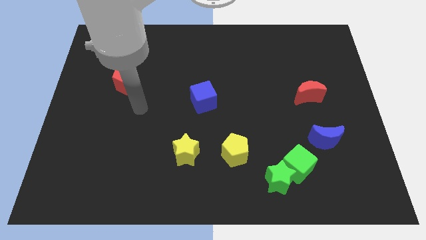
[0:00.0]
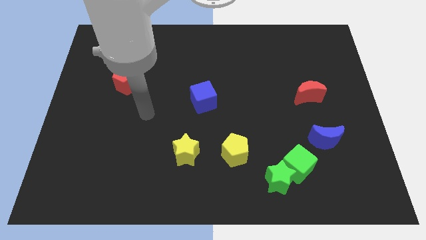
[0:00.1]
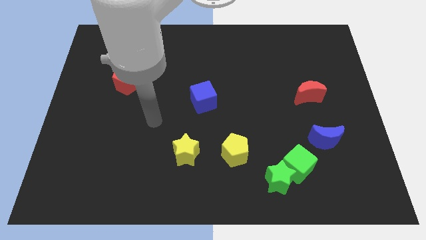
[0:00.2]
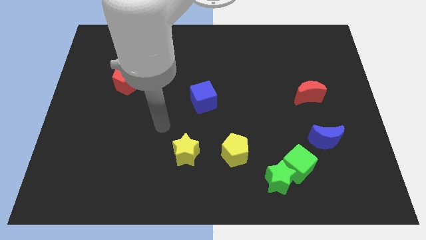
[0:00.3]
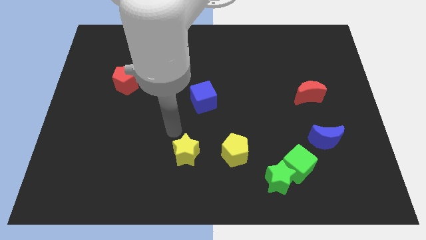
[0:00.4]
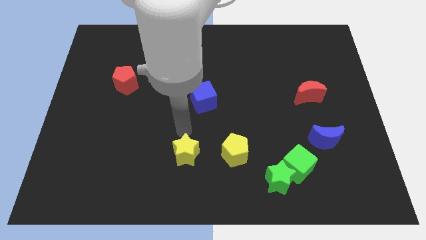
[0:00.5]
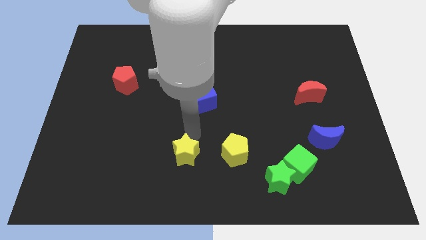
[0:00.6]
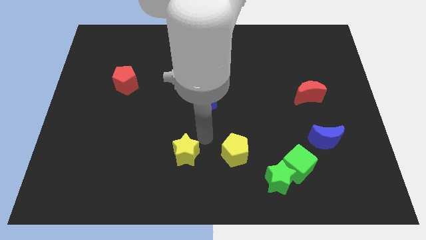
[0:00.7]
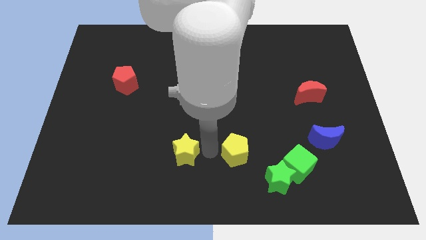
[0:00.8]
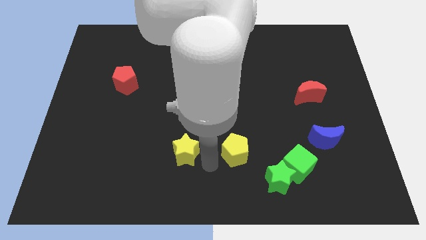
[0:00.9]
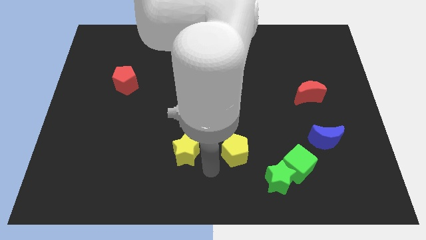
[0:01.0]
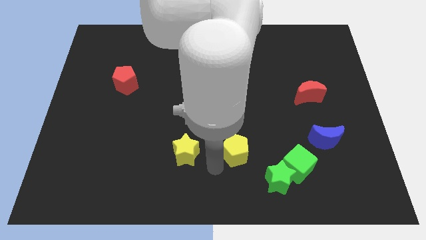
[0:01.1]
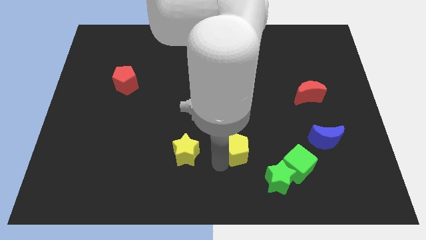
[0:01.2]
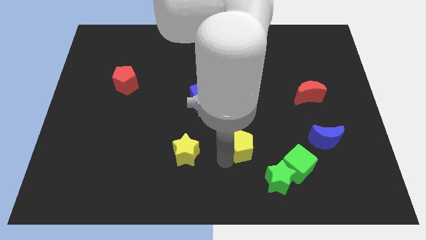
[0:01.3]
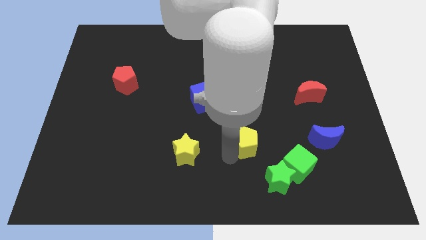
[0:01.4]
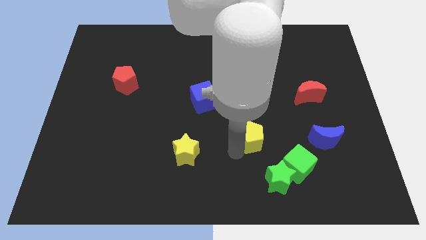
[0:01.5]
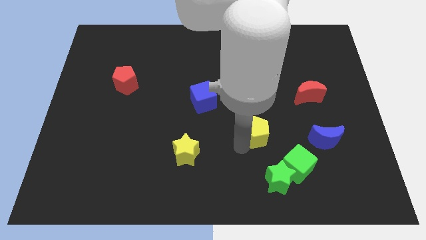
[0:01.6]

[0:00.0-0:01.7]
slightly push the yellow pentagon upwards and then to the right

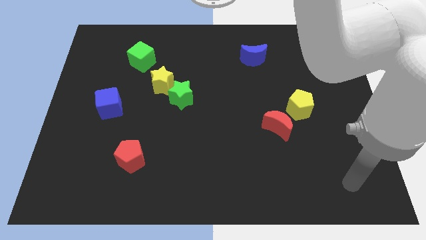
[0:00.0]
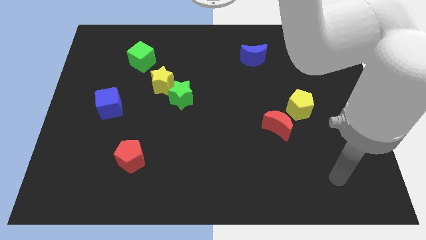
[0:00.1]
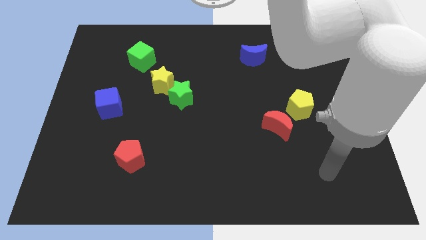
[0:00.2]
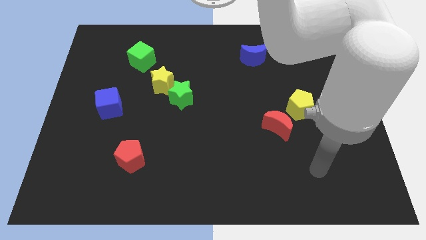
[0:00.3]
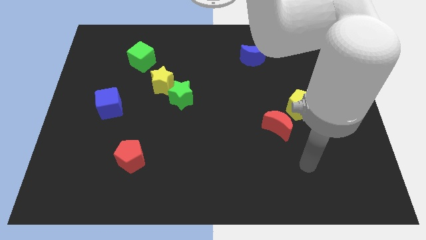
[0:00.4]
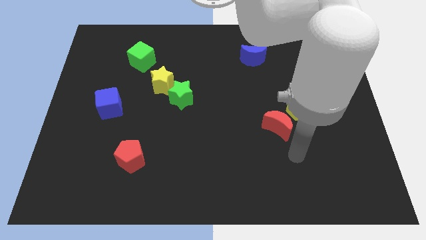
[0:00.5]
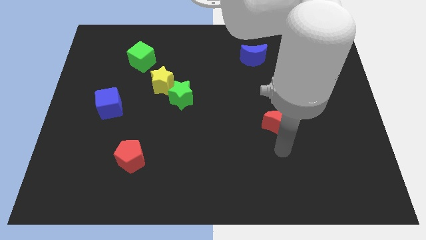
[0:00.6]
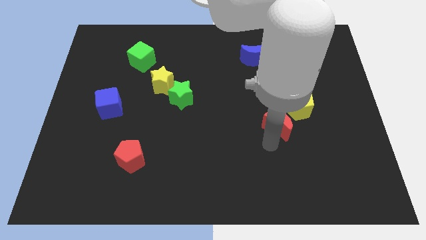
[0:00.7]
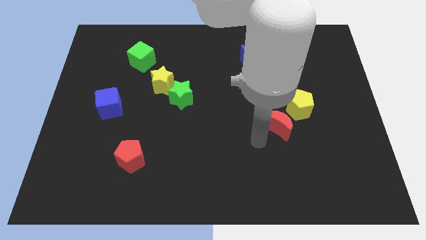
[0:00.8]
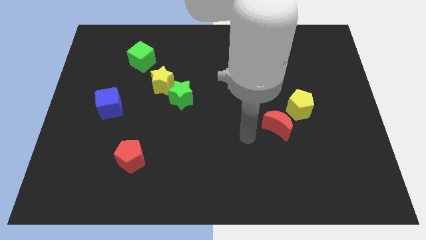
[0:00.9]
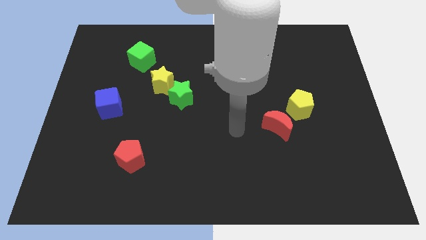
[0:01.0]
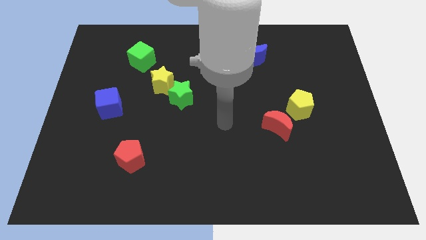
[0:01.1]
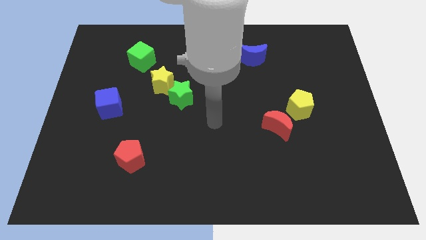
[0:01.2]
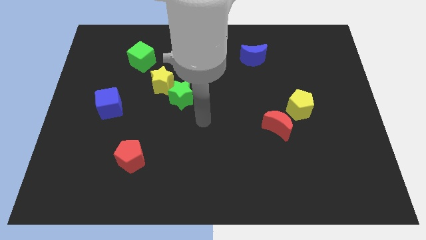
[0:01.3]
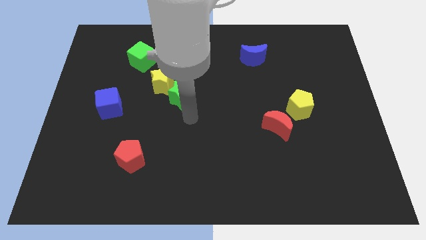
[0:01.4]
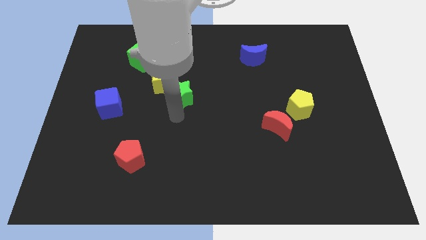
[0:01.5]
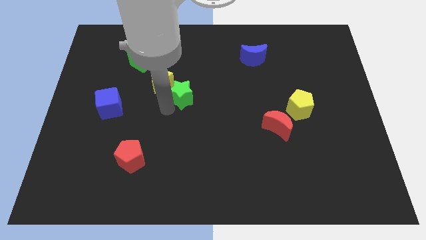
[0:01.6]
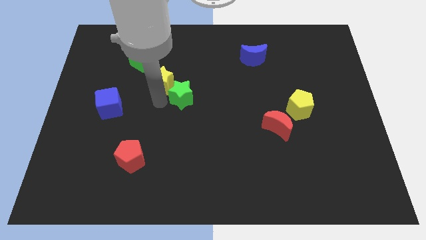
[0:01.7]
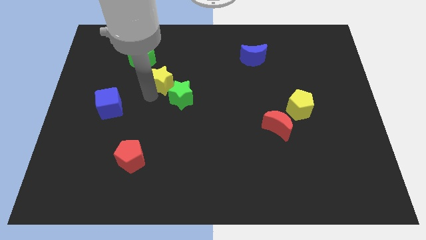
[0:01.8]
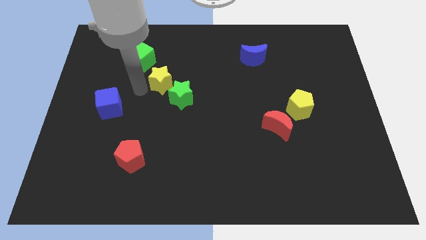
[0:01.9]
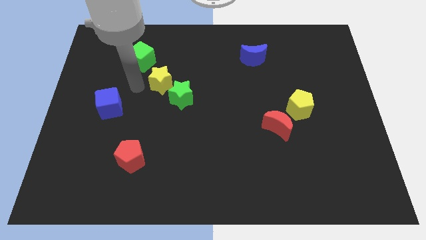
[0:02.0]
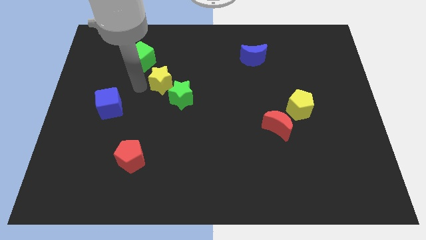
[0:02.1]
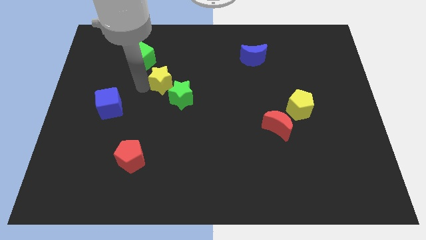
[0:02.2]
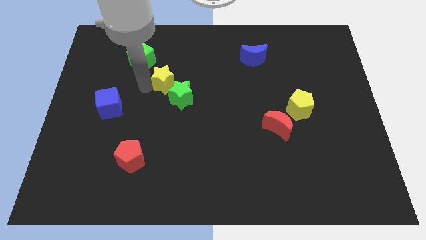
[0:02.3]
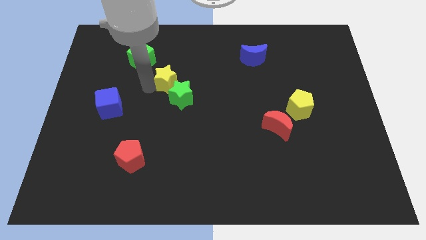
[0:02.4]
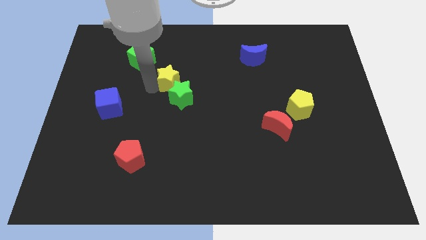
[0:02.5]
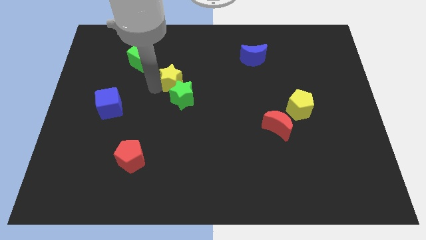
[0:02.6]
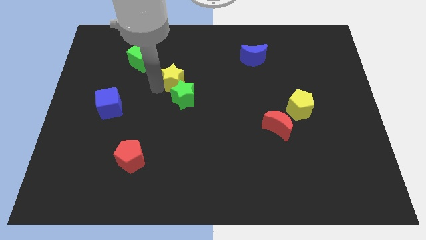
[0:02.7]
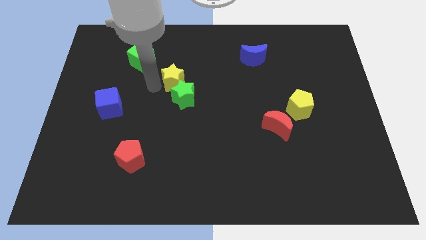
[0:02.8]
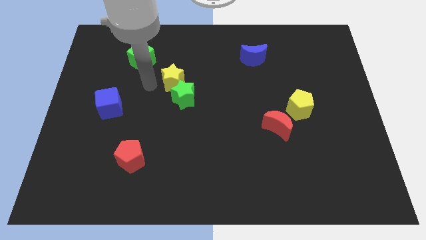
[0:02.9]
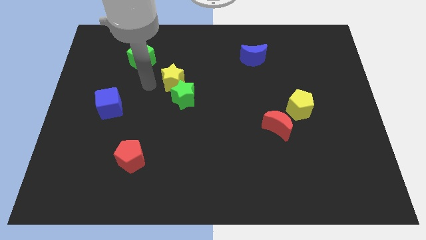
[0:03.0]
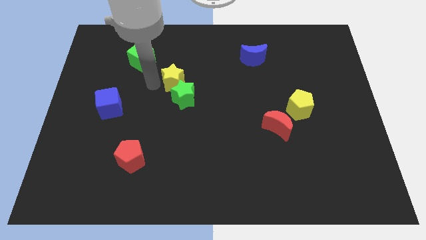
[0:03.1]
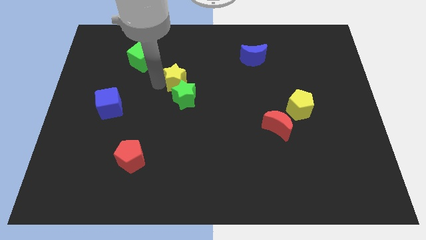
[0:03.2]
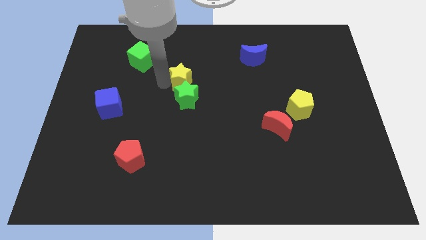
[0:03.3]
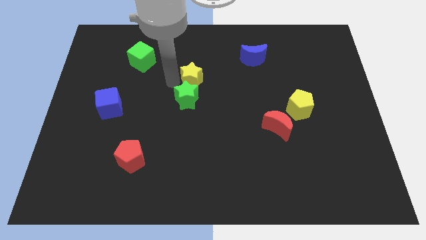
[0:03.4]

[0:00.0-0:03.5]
push the yellow star to the right a bit

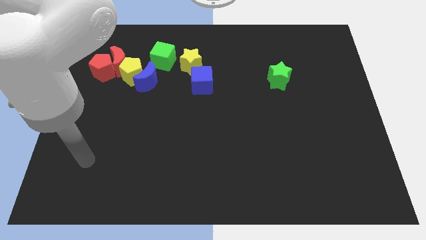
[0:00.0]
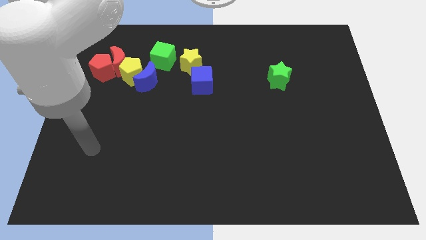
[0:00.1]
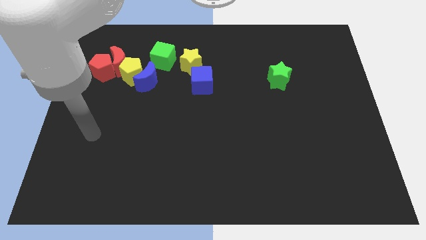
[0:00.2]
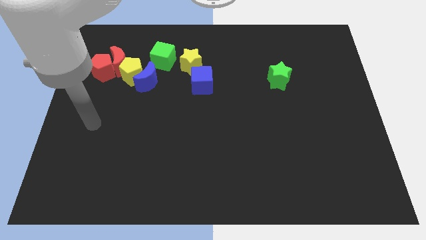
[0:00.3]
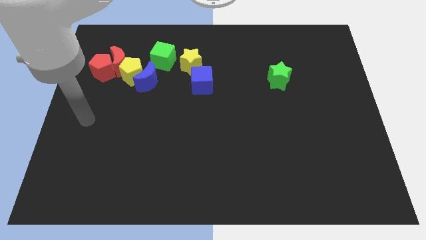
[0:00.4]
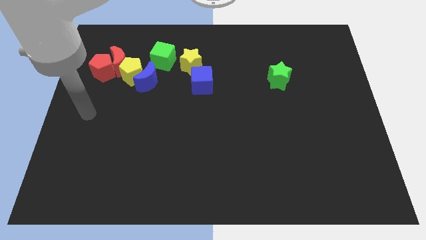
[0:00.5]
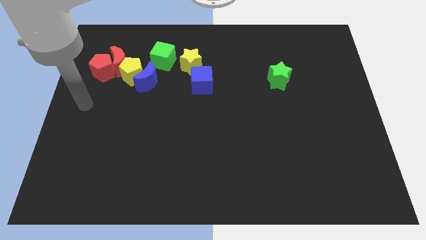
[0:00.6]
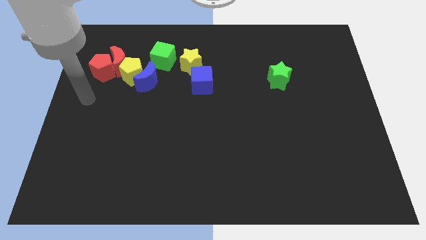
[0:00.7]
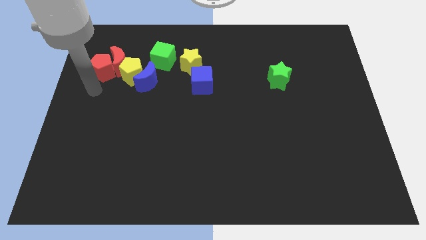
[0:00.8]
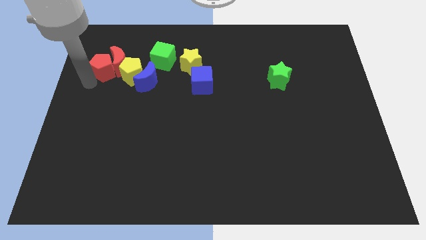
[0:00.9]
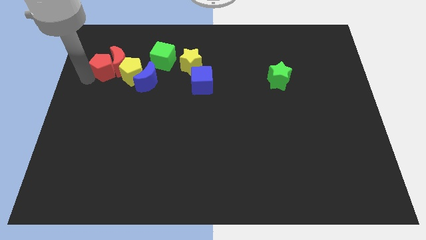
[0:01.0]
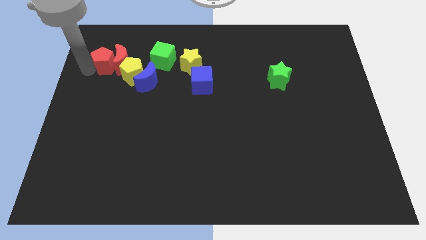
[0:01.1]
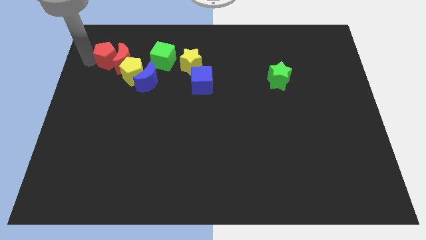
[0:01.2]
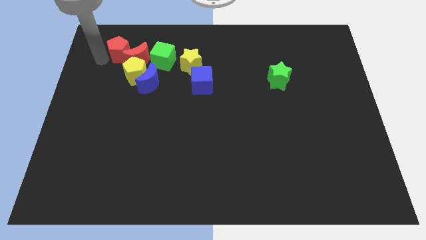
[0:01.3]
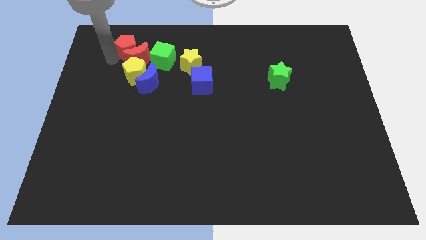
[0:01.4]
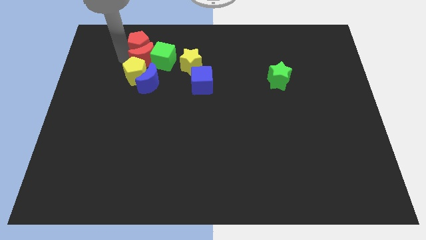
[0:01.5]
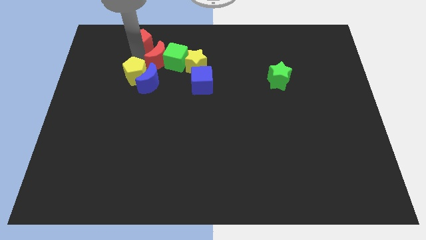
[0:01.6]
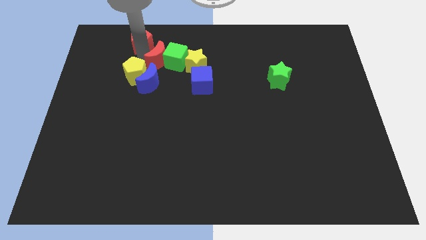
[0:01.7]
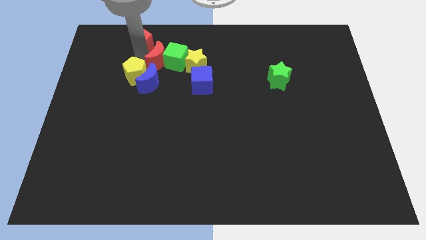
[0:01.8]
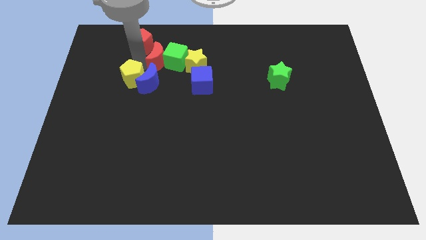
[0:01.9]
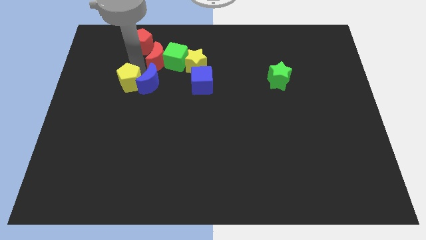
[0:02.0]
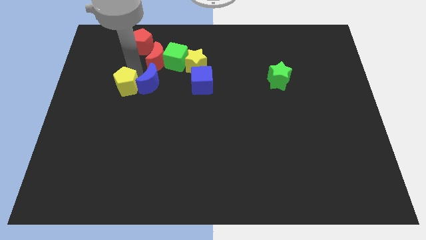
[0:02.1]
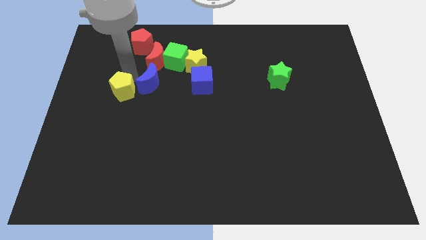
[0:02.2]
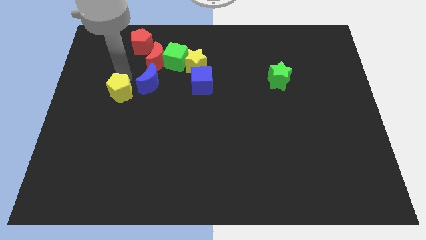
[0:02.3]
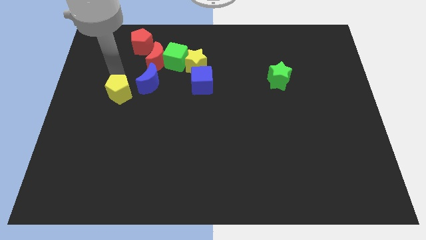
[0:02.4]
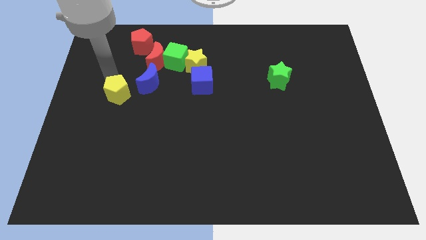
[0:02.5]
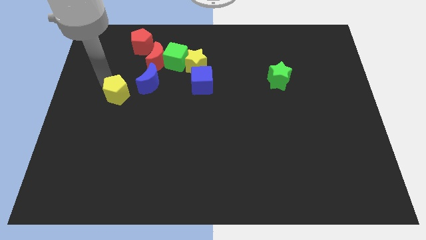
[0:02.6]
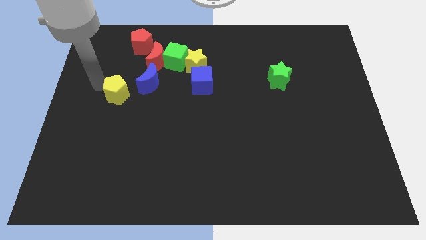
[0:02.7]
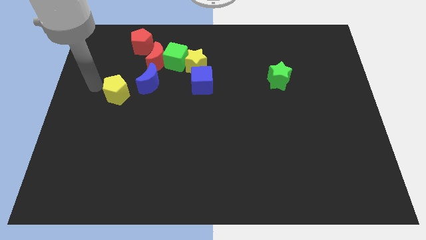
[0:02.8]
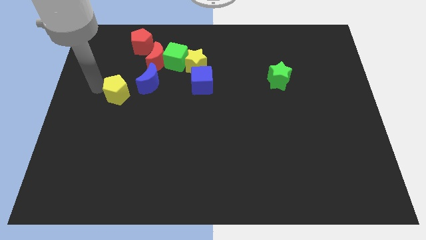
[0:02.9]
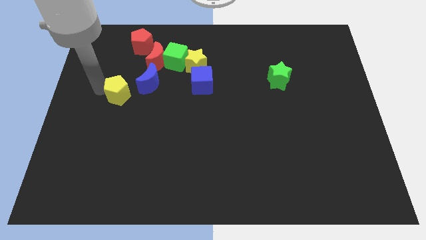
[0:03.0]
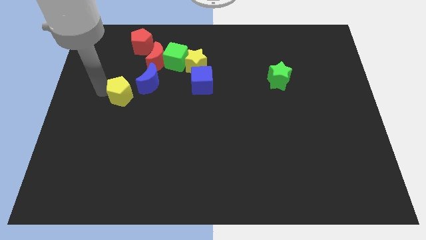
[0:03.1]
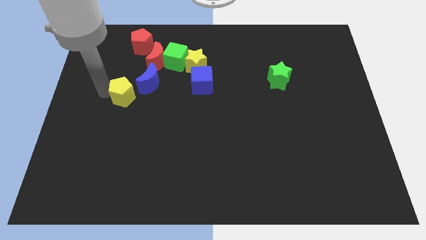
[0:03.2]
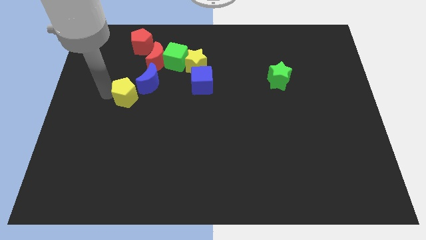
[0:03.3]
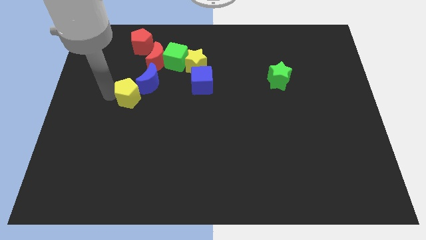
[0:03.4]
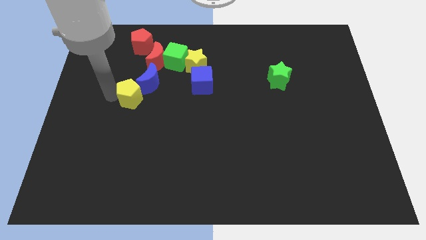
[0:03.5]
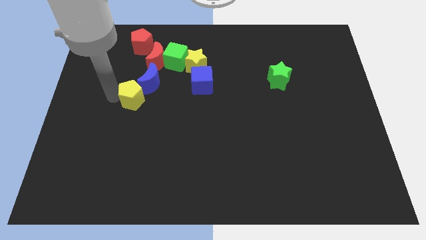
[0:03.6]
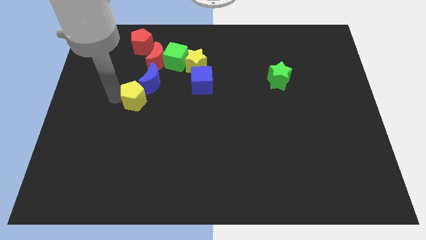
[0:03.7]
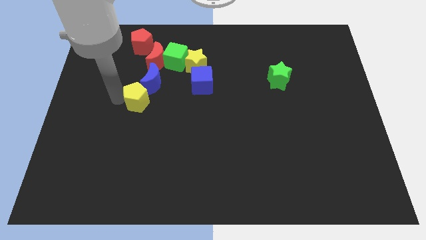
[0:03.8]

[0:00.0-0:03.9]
move the yellow pentagon diagonally downwards and right a bit
